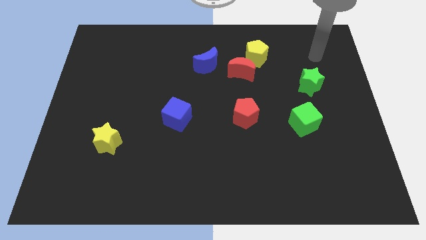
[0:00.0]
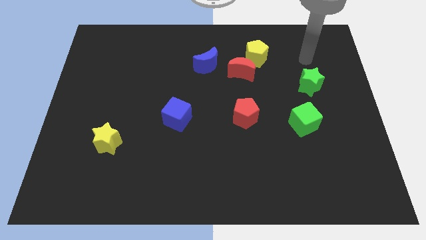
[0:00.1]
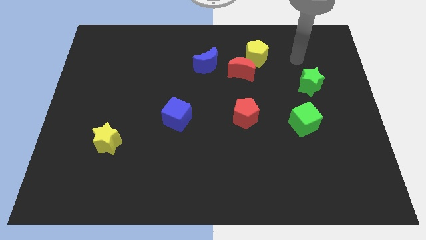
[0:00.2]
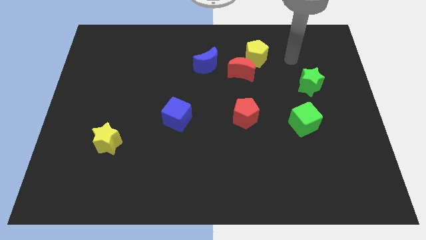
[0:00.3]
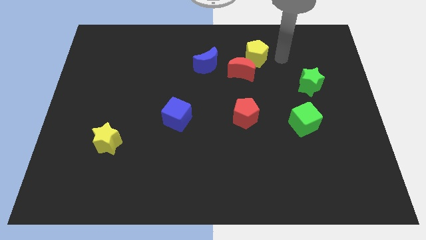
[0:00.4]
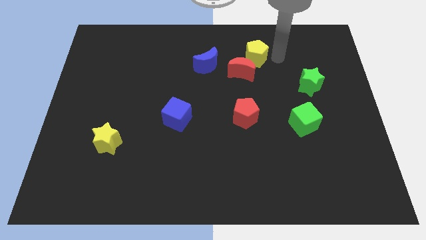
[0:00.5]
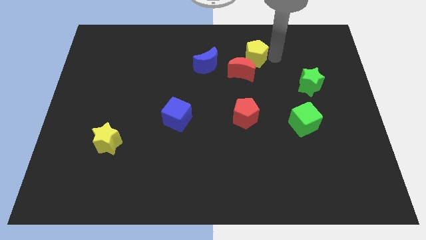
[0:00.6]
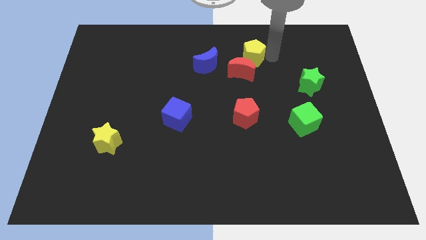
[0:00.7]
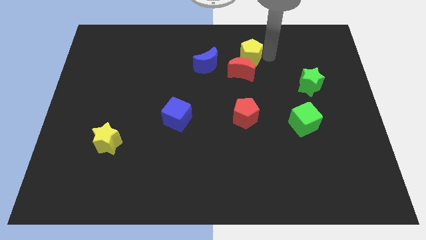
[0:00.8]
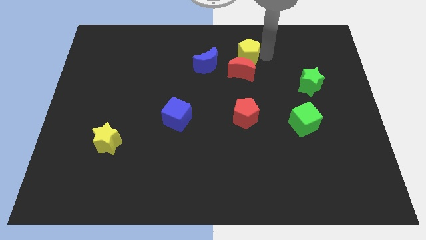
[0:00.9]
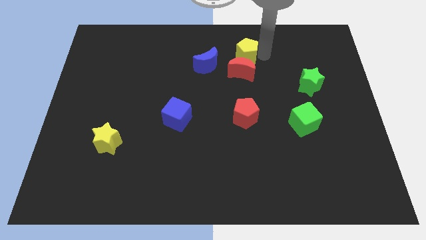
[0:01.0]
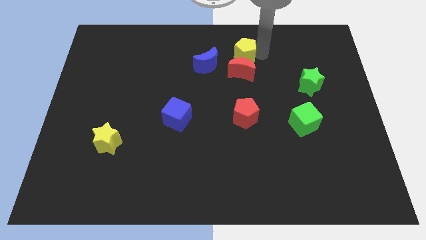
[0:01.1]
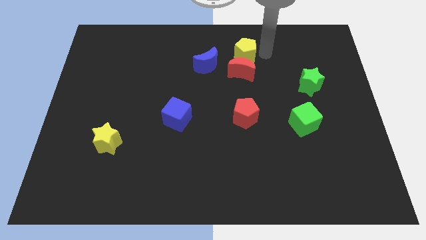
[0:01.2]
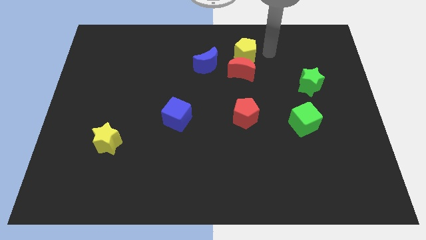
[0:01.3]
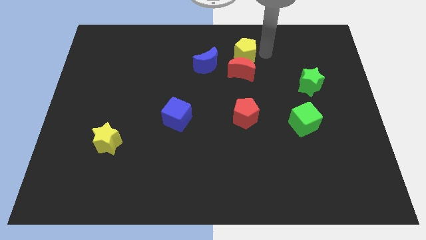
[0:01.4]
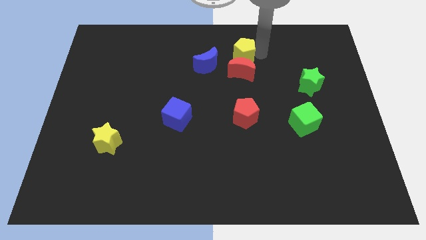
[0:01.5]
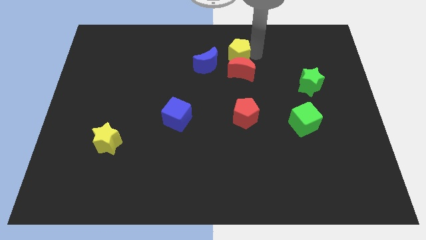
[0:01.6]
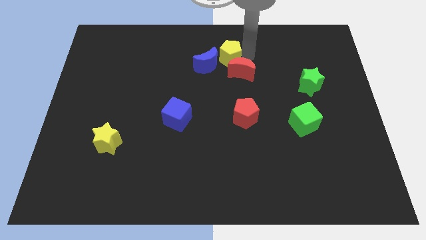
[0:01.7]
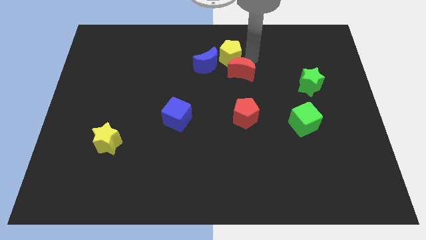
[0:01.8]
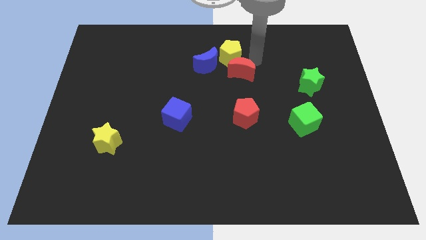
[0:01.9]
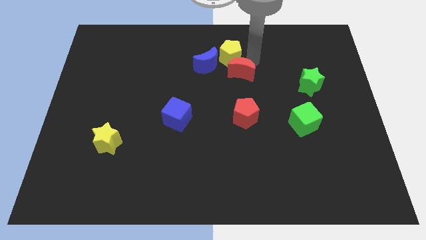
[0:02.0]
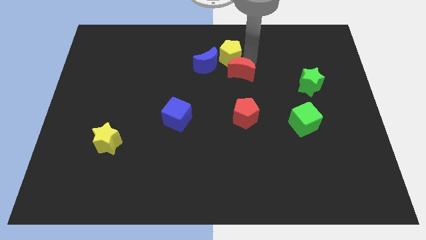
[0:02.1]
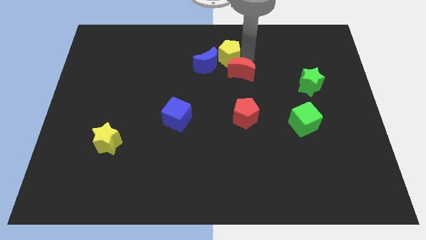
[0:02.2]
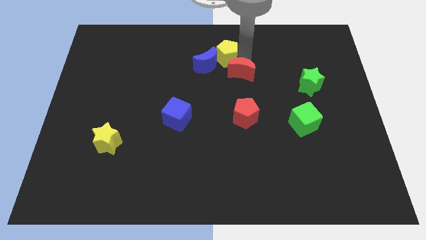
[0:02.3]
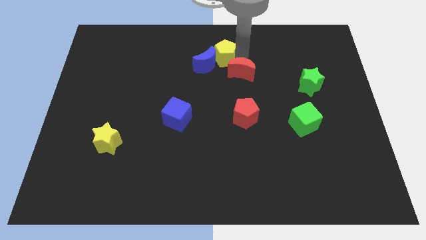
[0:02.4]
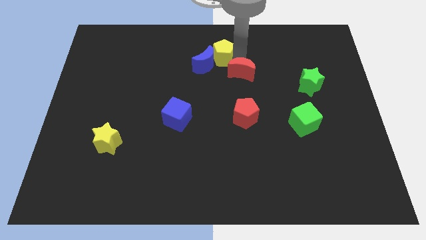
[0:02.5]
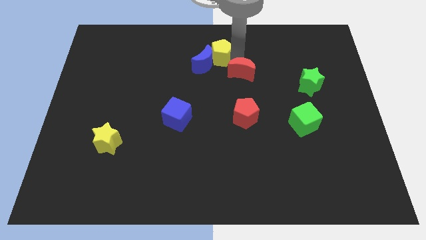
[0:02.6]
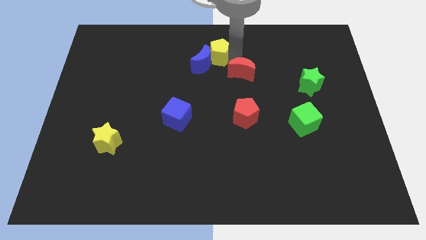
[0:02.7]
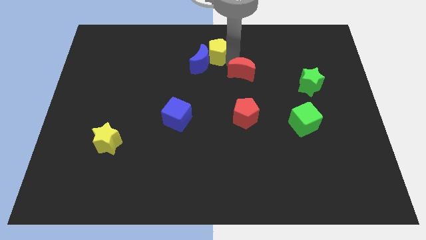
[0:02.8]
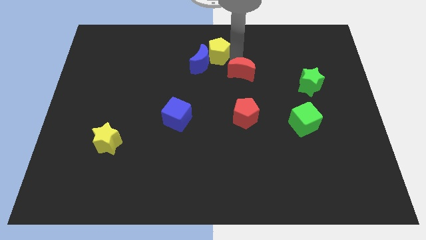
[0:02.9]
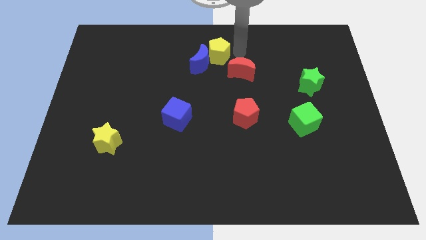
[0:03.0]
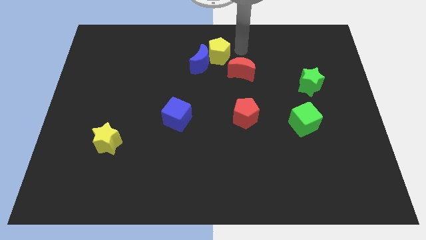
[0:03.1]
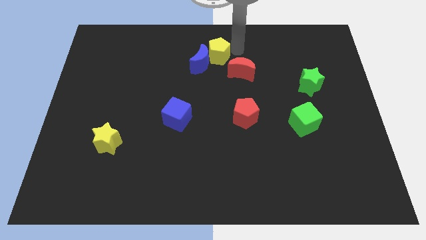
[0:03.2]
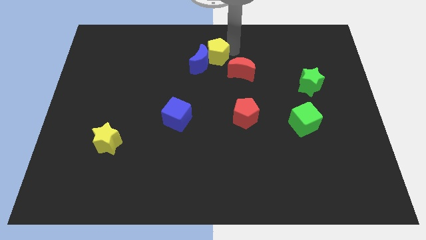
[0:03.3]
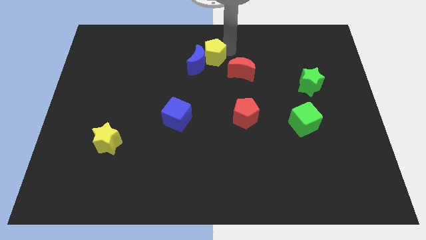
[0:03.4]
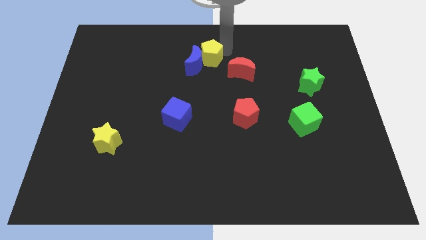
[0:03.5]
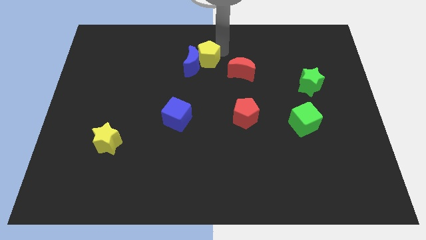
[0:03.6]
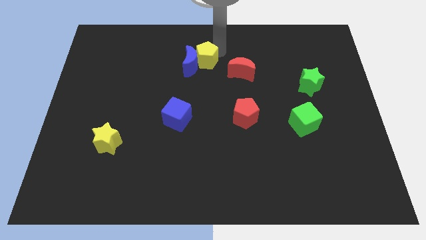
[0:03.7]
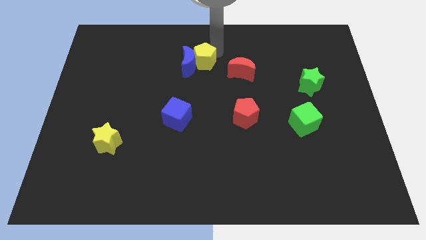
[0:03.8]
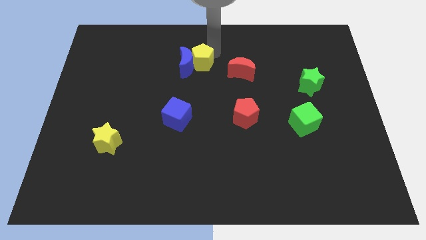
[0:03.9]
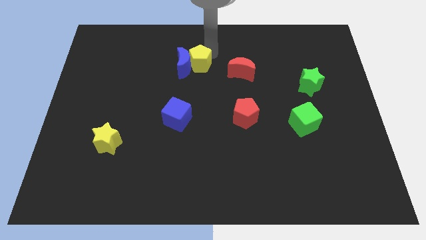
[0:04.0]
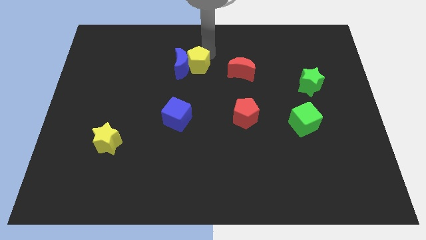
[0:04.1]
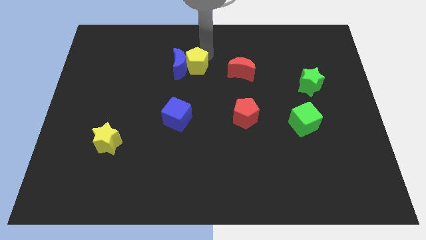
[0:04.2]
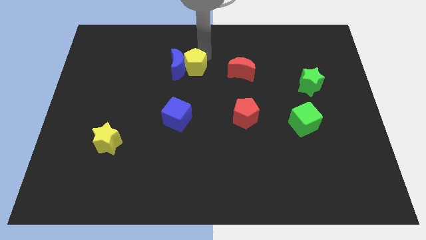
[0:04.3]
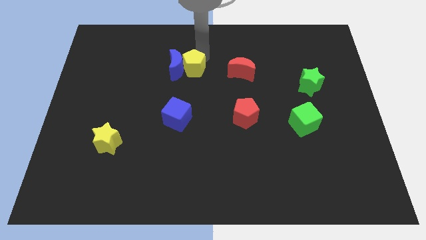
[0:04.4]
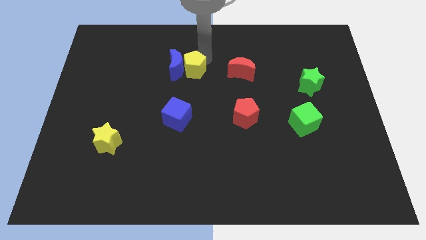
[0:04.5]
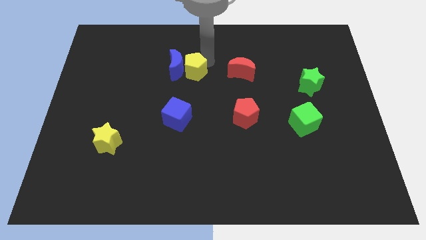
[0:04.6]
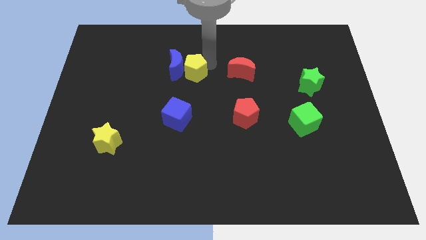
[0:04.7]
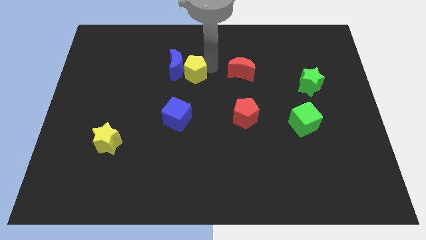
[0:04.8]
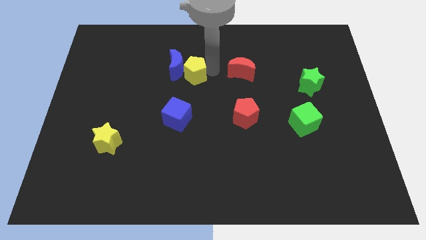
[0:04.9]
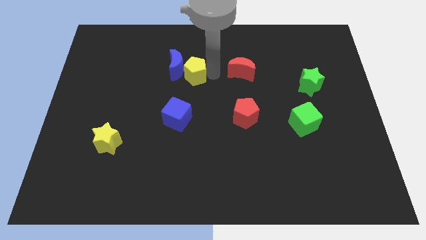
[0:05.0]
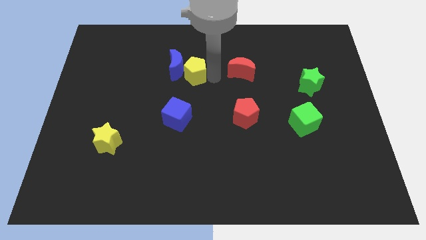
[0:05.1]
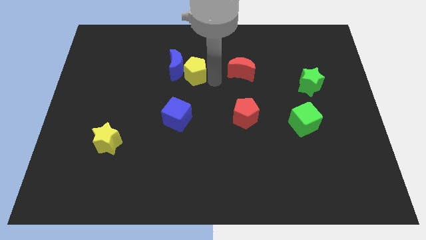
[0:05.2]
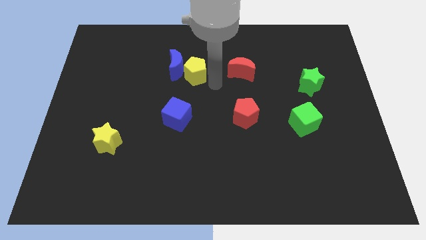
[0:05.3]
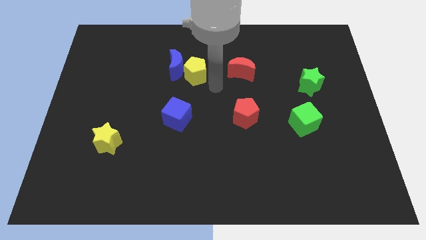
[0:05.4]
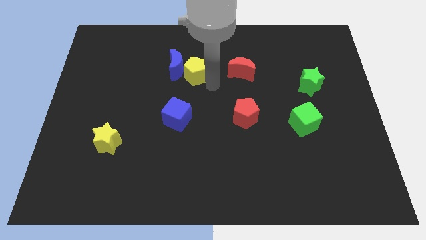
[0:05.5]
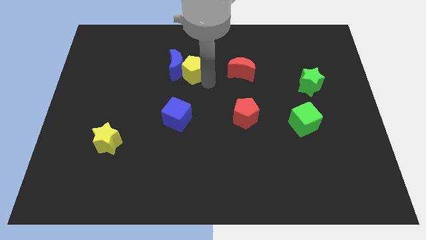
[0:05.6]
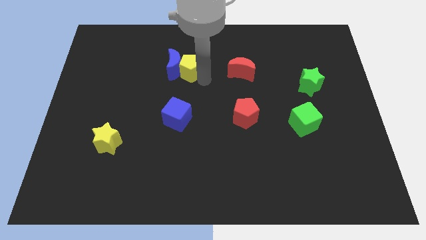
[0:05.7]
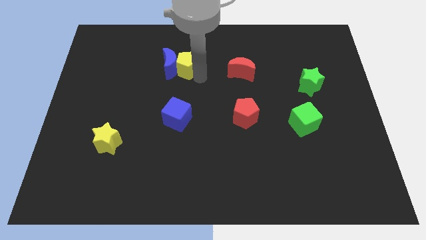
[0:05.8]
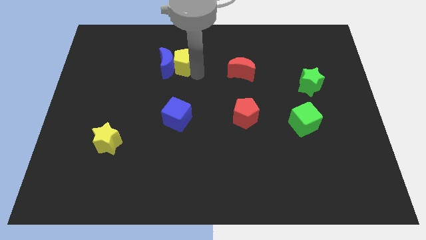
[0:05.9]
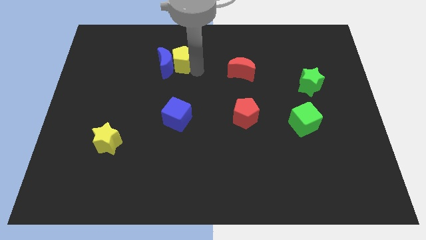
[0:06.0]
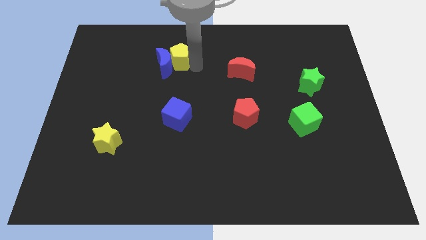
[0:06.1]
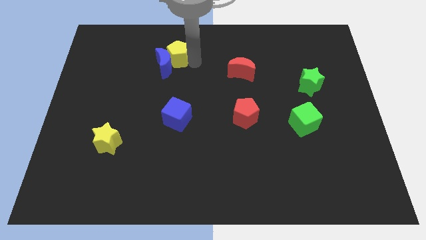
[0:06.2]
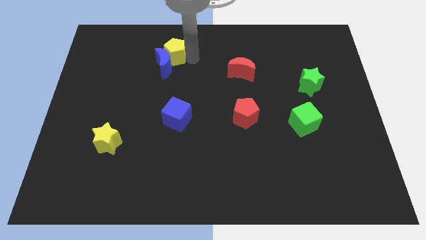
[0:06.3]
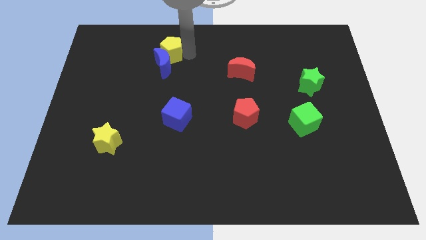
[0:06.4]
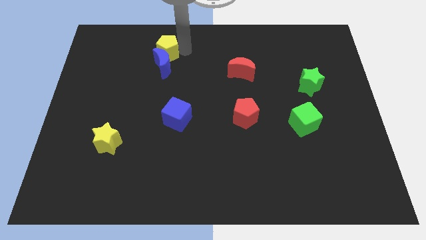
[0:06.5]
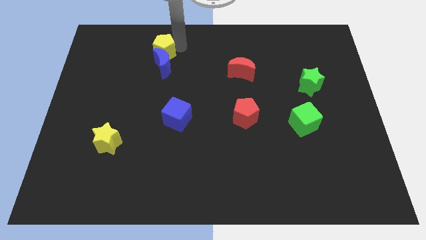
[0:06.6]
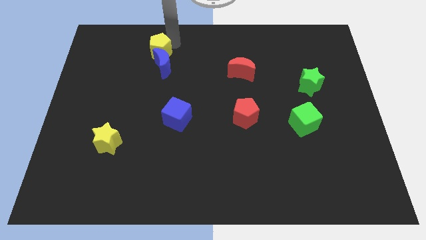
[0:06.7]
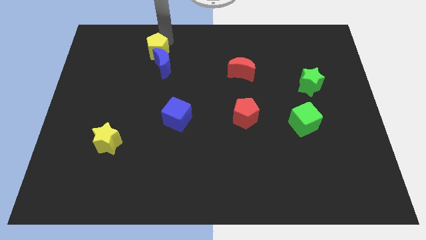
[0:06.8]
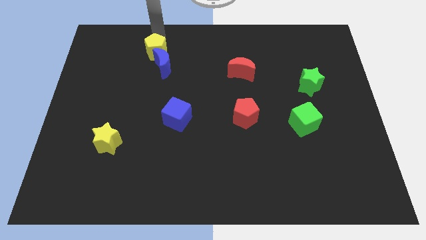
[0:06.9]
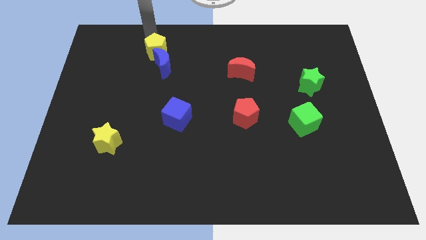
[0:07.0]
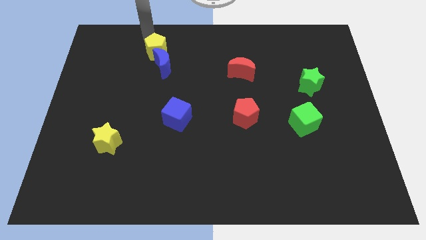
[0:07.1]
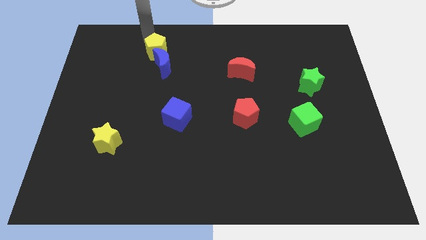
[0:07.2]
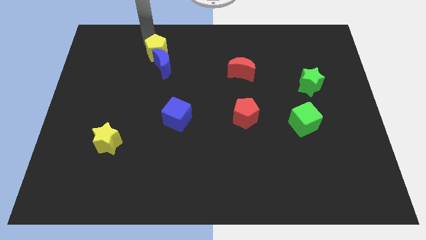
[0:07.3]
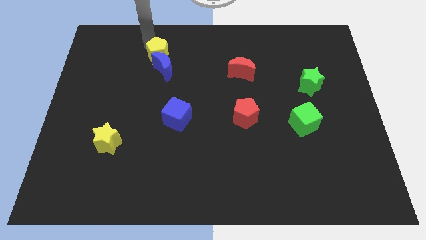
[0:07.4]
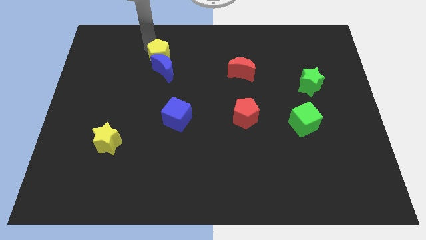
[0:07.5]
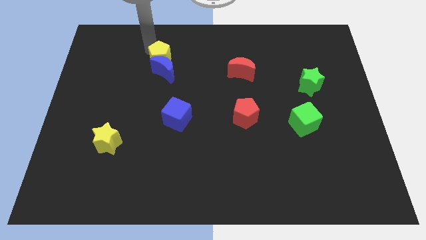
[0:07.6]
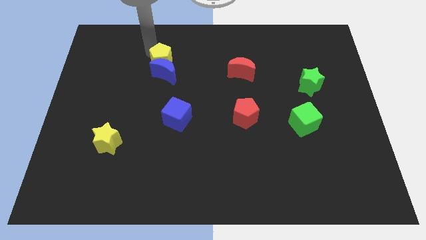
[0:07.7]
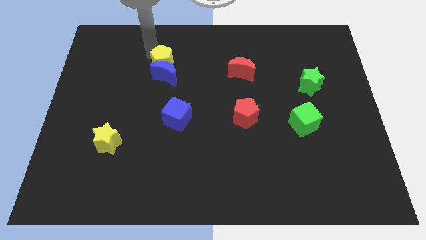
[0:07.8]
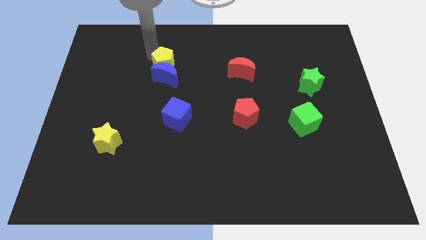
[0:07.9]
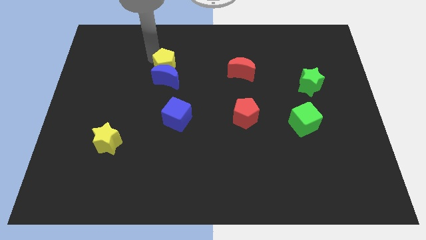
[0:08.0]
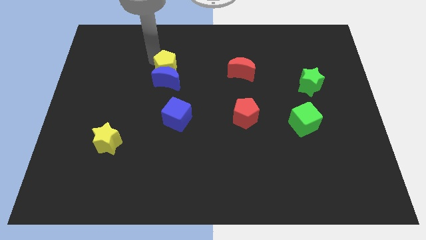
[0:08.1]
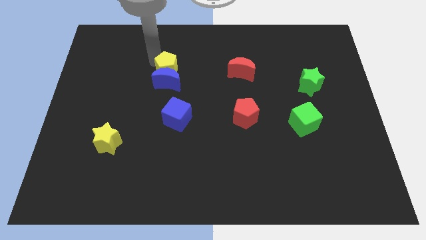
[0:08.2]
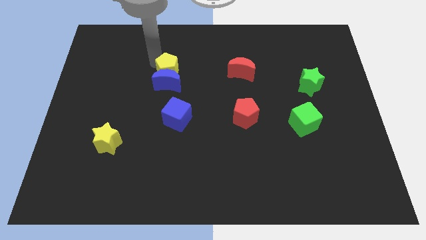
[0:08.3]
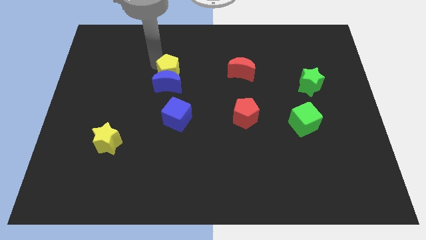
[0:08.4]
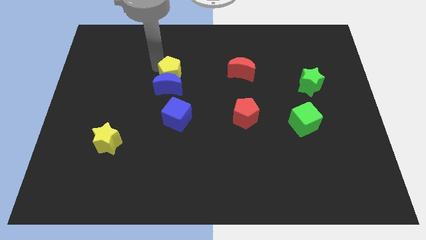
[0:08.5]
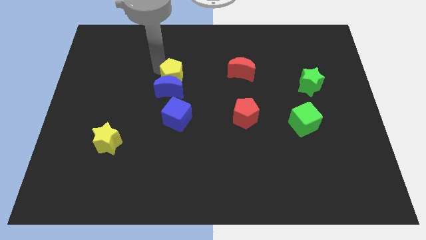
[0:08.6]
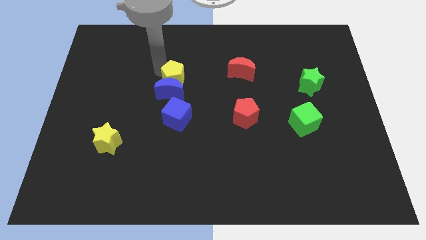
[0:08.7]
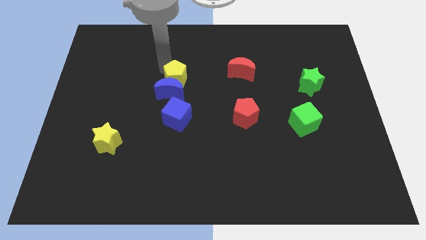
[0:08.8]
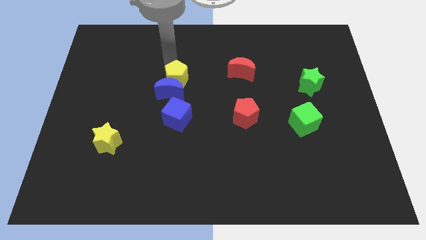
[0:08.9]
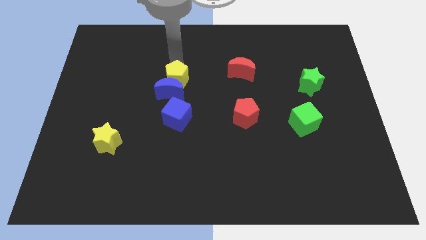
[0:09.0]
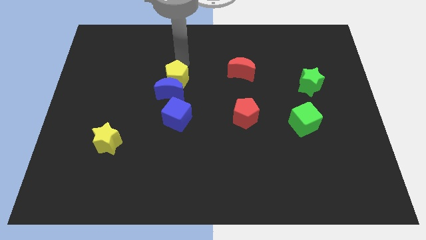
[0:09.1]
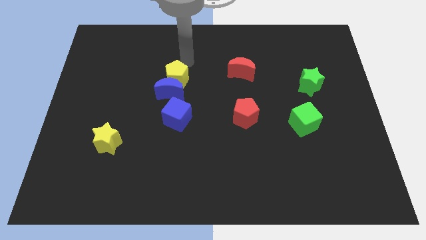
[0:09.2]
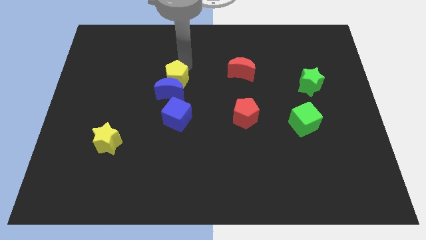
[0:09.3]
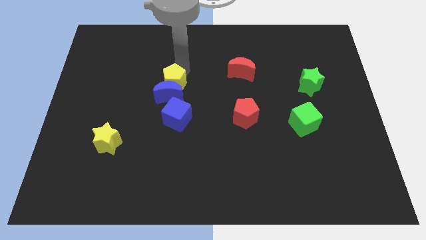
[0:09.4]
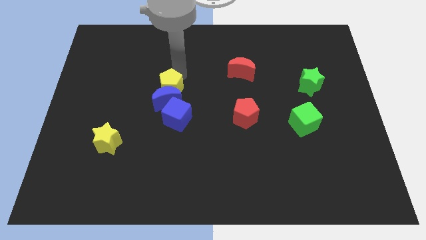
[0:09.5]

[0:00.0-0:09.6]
slide the yellow pentagon down and to the left diagonally
